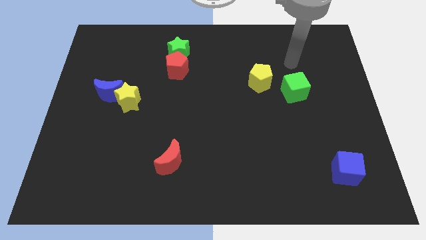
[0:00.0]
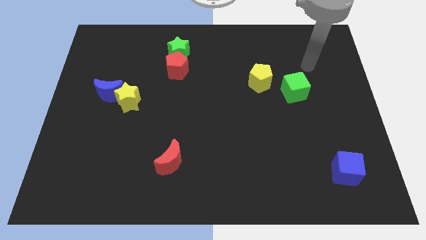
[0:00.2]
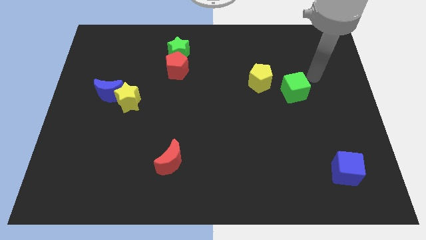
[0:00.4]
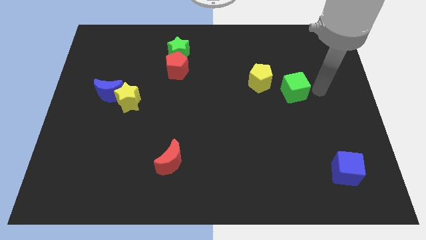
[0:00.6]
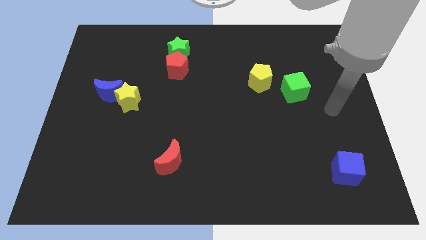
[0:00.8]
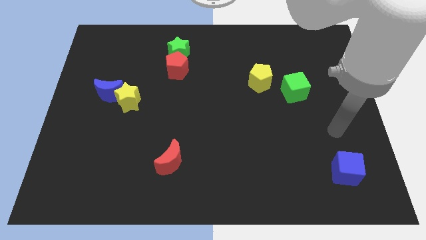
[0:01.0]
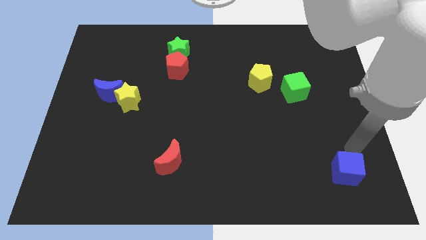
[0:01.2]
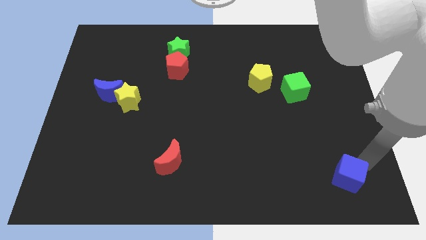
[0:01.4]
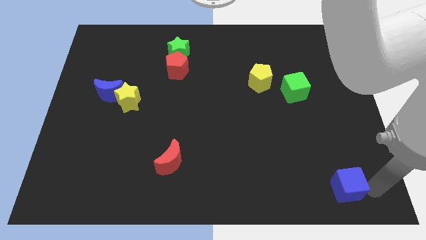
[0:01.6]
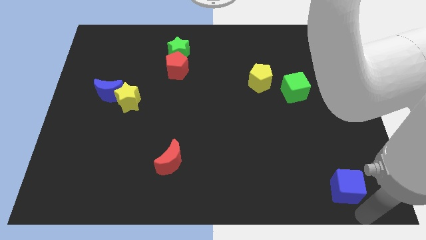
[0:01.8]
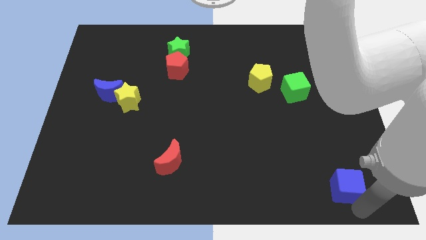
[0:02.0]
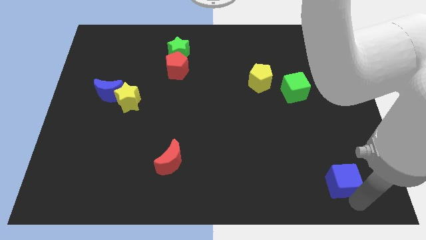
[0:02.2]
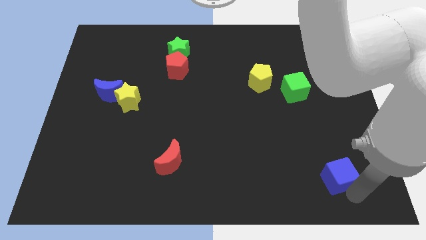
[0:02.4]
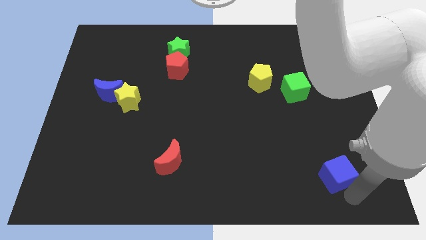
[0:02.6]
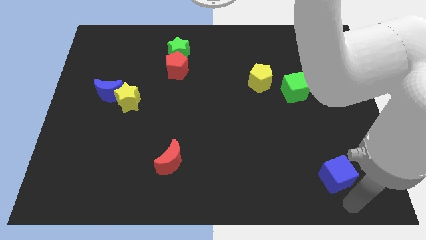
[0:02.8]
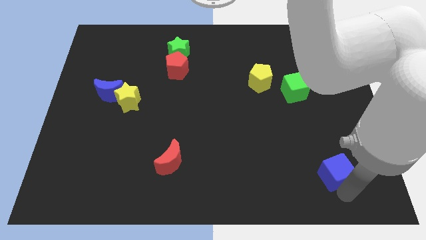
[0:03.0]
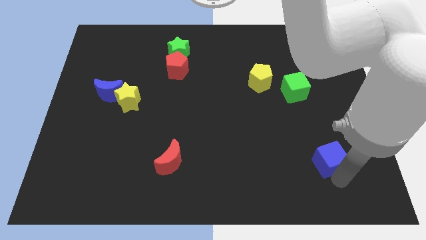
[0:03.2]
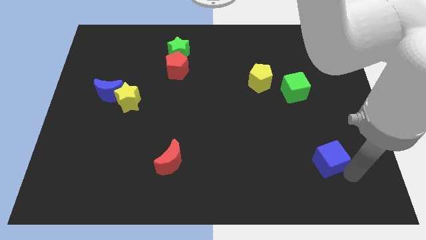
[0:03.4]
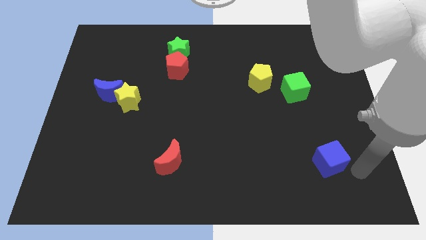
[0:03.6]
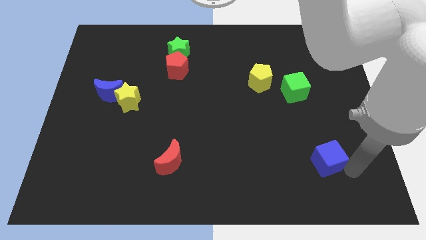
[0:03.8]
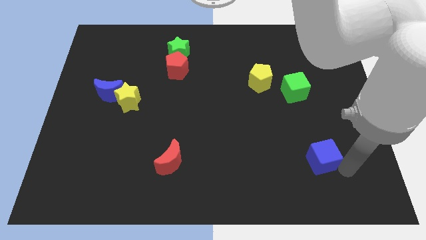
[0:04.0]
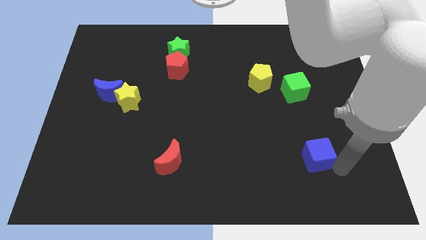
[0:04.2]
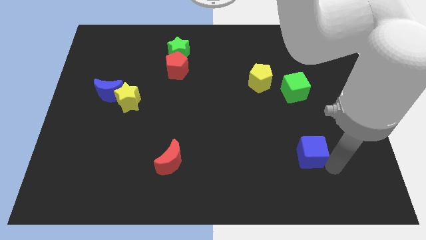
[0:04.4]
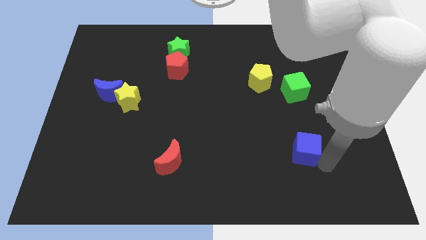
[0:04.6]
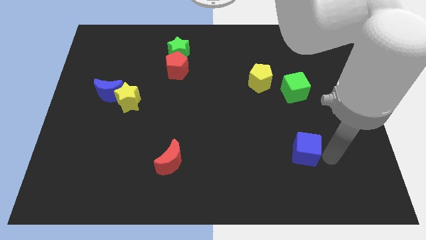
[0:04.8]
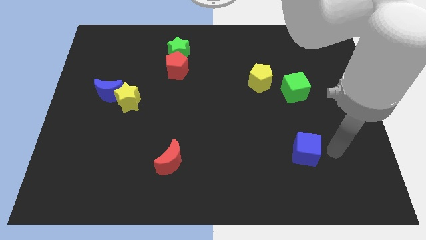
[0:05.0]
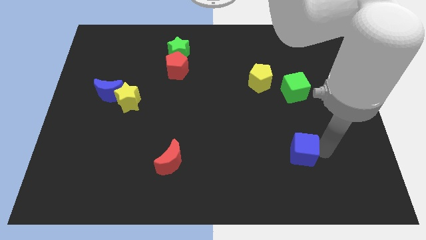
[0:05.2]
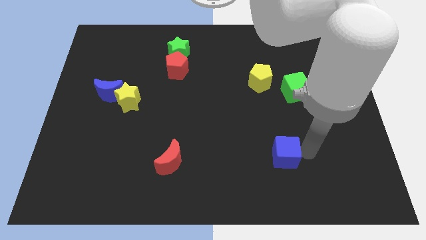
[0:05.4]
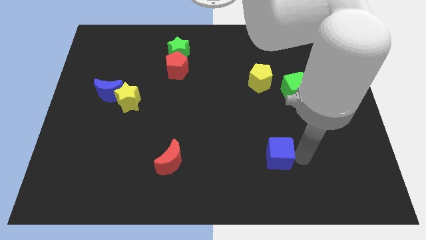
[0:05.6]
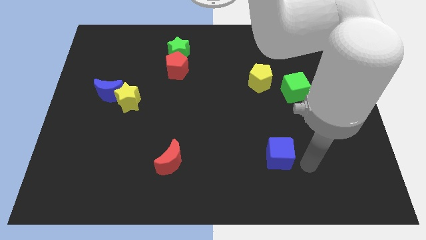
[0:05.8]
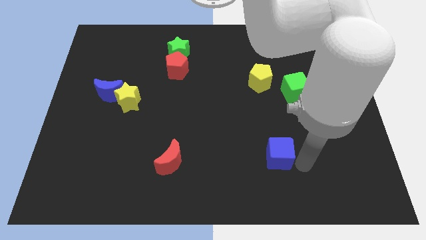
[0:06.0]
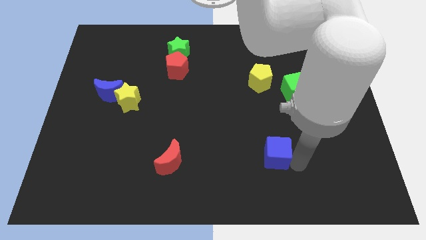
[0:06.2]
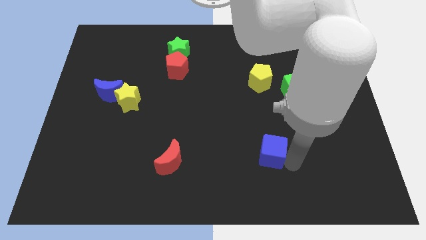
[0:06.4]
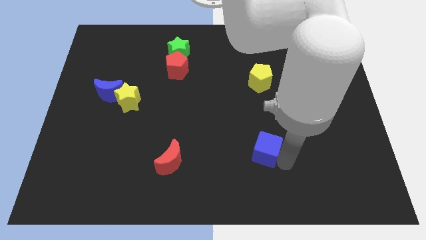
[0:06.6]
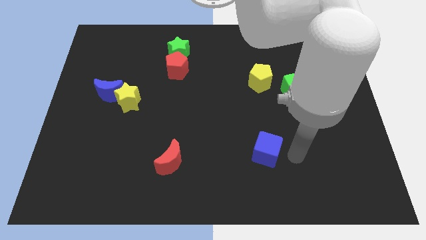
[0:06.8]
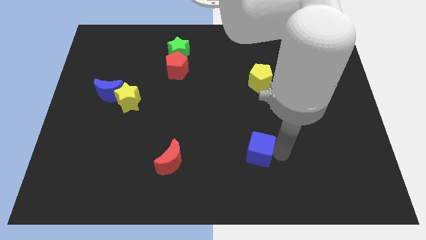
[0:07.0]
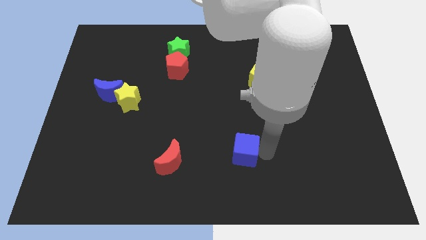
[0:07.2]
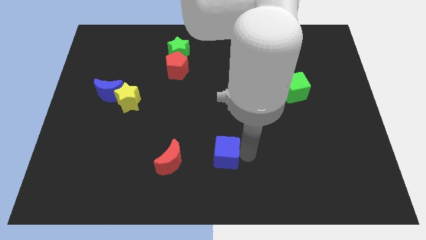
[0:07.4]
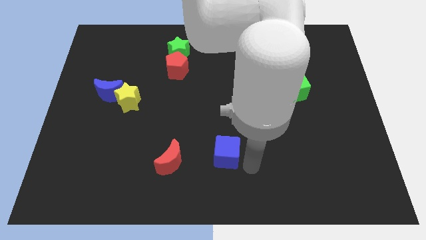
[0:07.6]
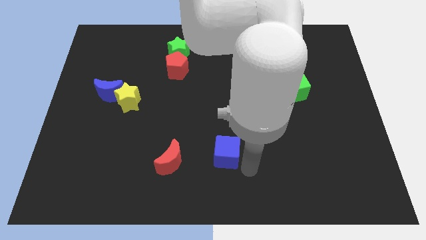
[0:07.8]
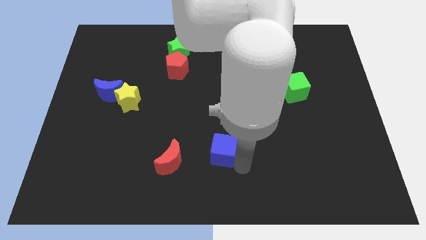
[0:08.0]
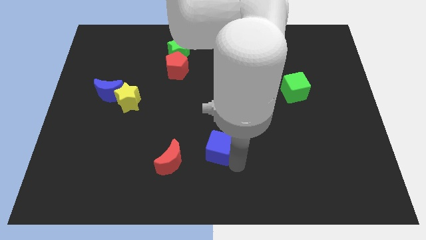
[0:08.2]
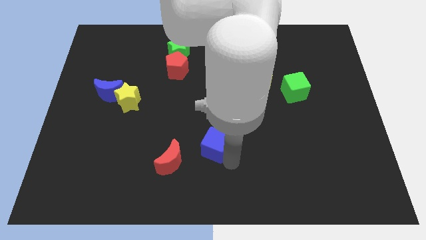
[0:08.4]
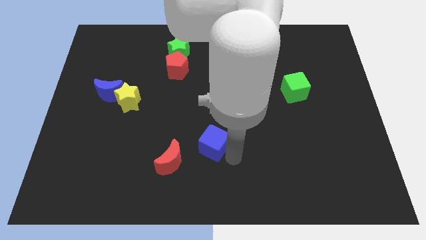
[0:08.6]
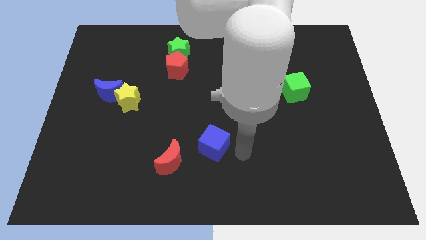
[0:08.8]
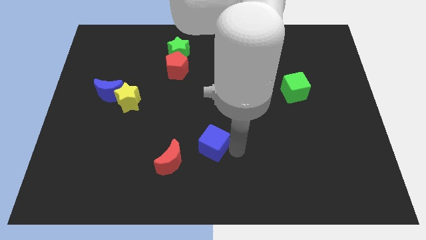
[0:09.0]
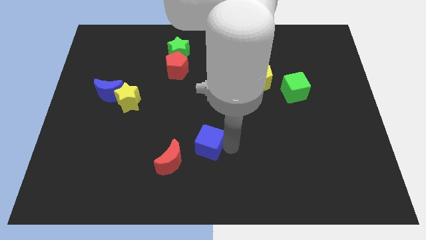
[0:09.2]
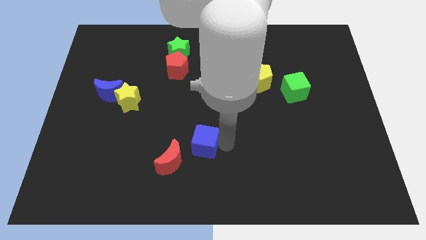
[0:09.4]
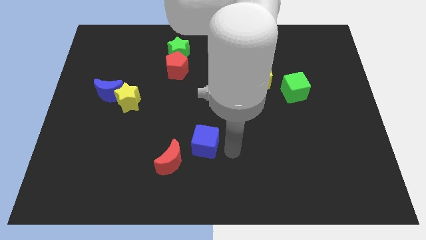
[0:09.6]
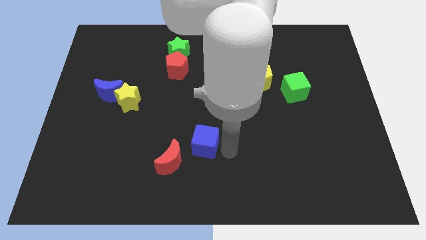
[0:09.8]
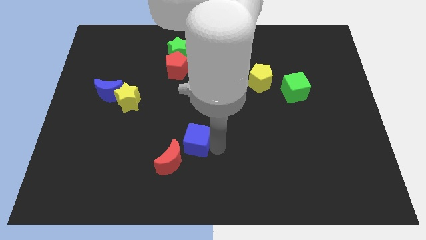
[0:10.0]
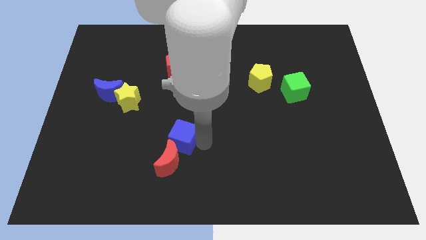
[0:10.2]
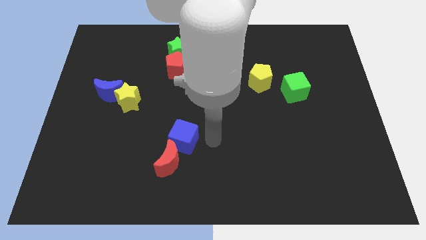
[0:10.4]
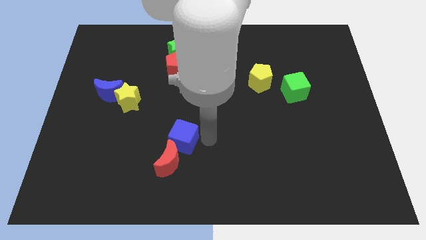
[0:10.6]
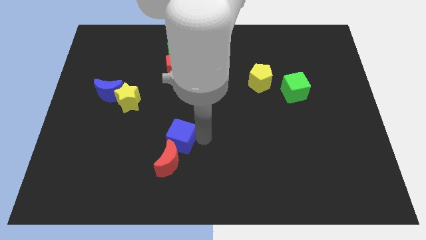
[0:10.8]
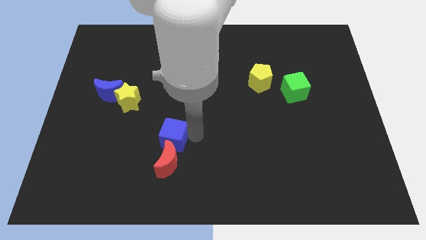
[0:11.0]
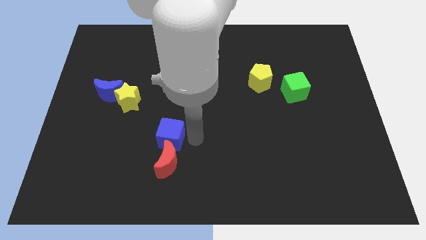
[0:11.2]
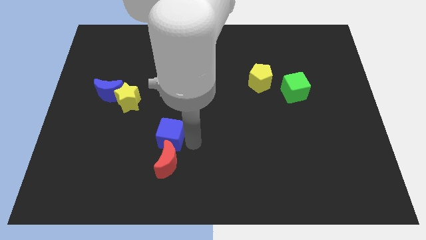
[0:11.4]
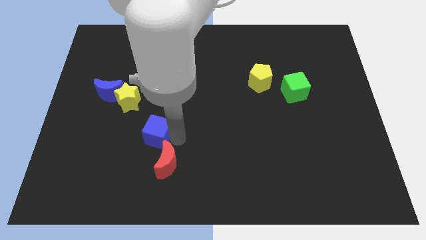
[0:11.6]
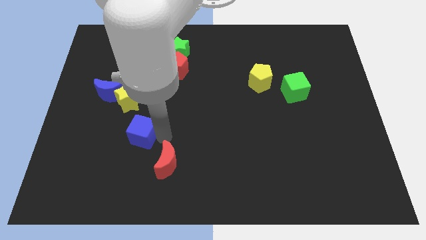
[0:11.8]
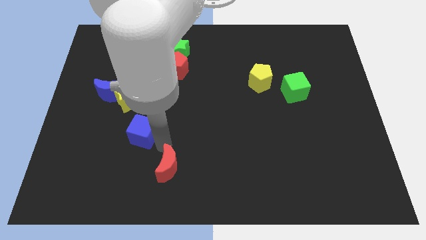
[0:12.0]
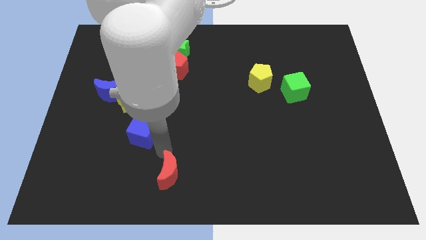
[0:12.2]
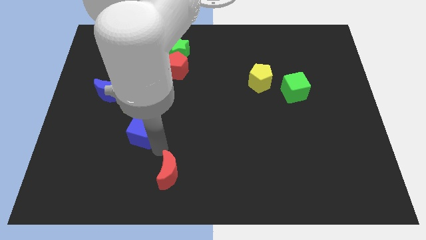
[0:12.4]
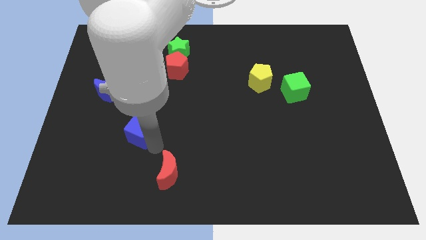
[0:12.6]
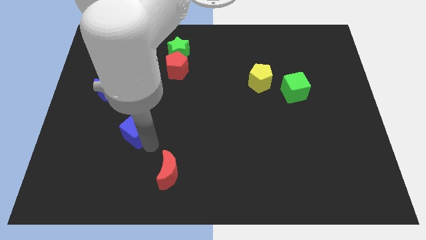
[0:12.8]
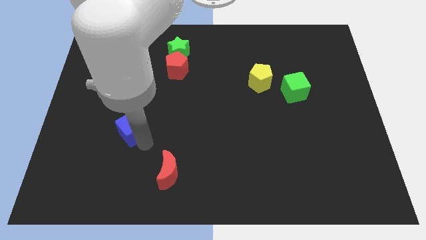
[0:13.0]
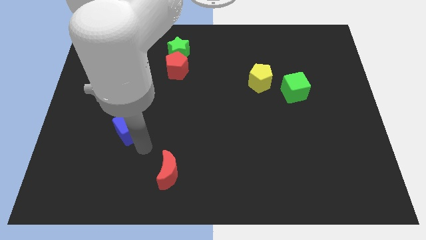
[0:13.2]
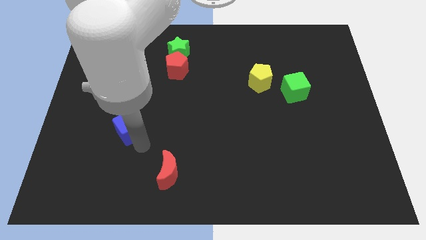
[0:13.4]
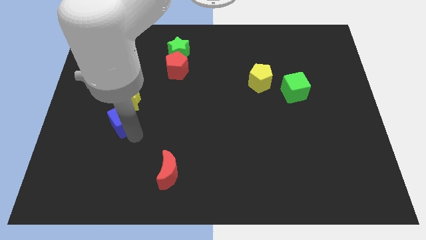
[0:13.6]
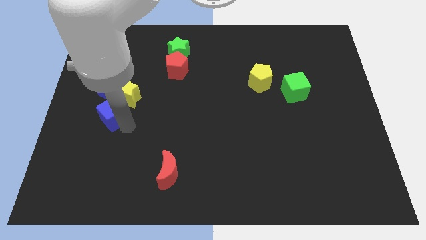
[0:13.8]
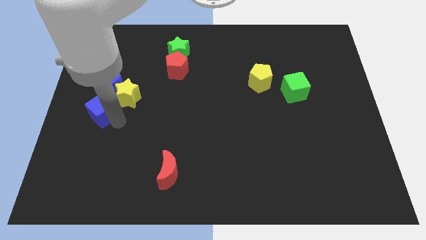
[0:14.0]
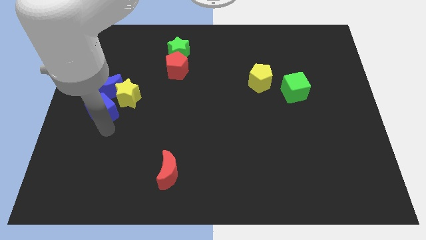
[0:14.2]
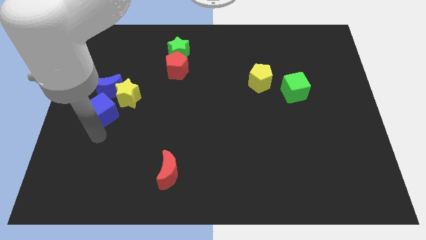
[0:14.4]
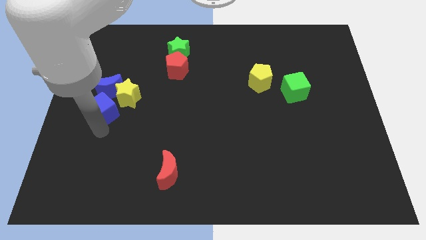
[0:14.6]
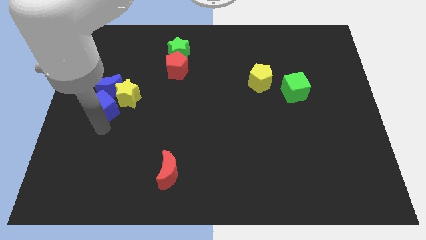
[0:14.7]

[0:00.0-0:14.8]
slide the blue cube next to the blue moon
